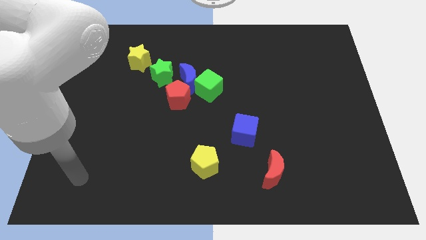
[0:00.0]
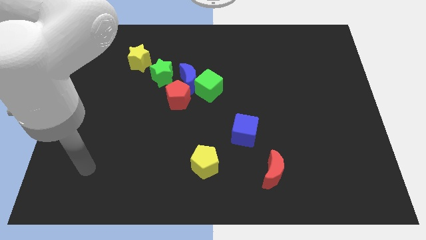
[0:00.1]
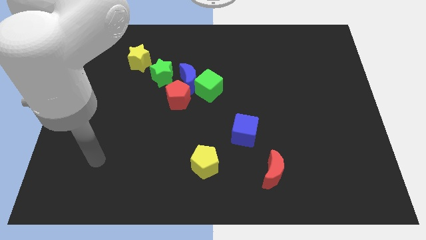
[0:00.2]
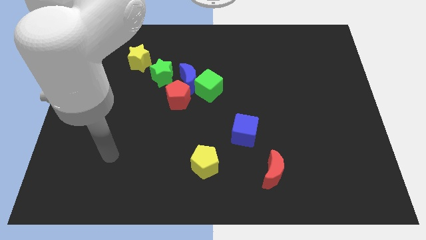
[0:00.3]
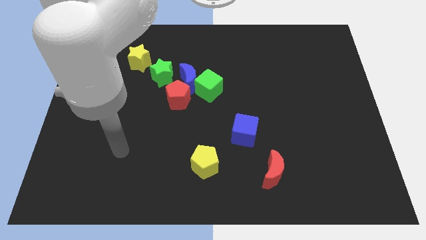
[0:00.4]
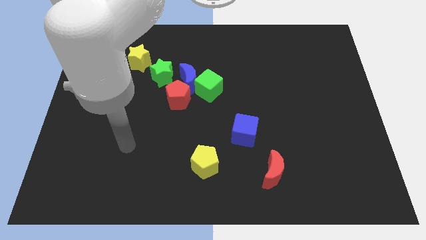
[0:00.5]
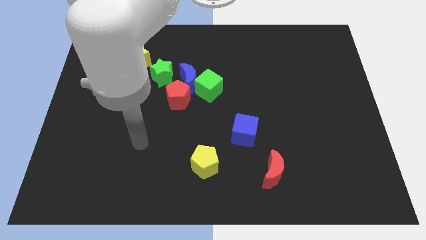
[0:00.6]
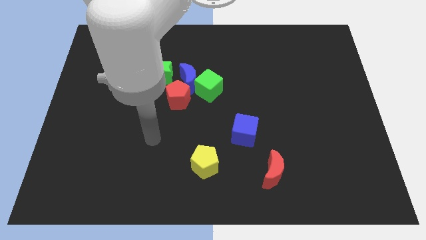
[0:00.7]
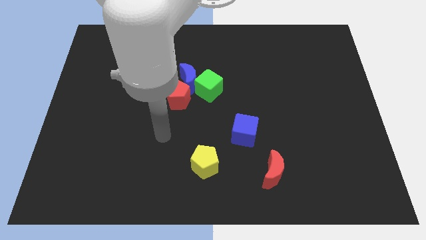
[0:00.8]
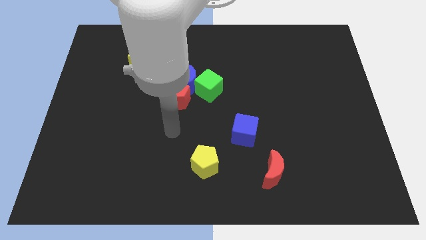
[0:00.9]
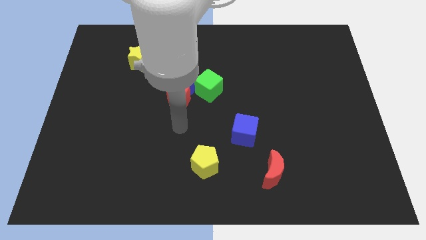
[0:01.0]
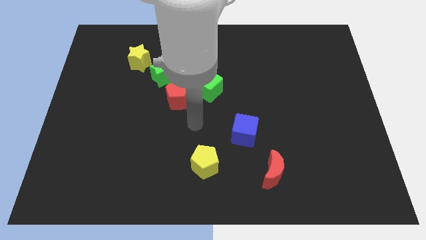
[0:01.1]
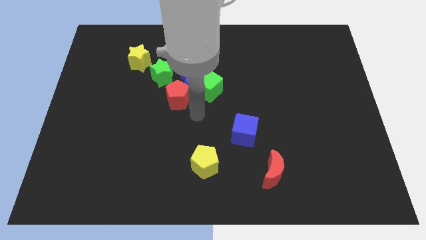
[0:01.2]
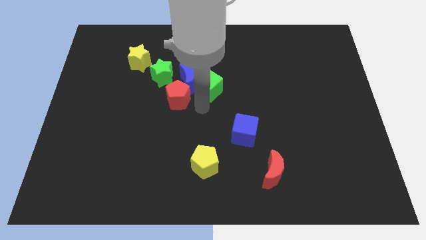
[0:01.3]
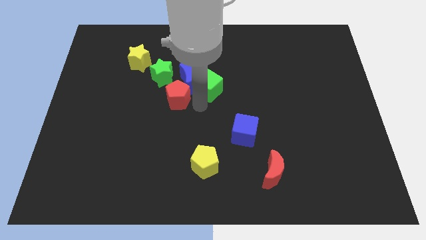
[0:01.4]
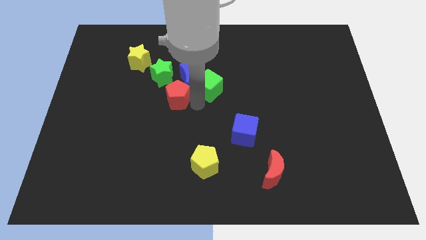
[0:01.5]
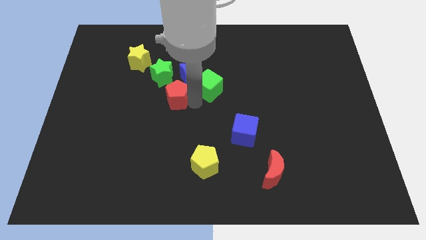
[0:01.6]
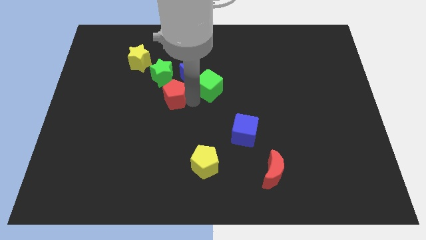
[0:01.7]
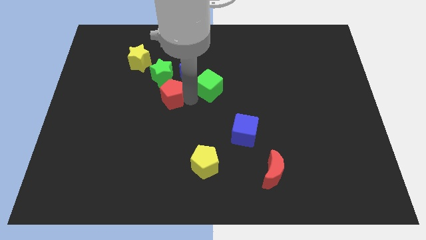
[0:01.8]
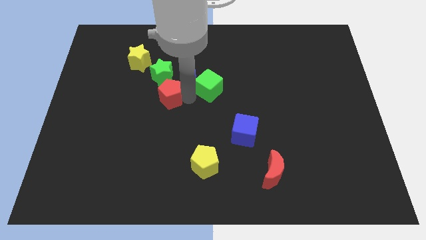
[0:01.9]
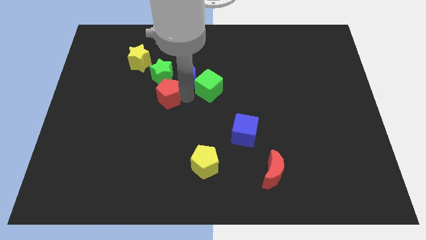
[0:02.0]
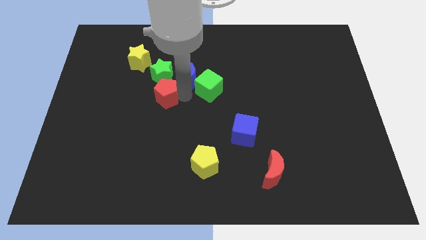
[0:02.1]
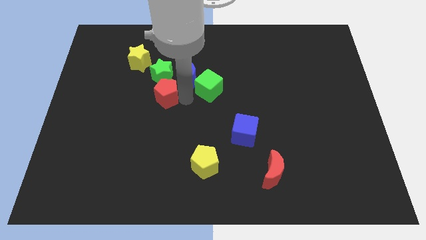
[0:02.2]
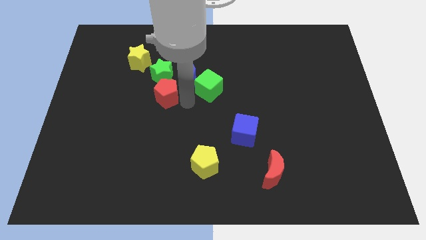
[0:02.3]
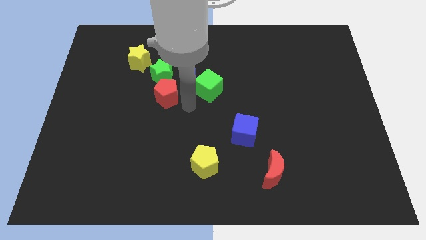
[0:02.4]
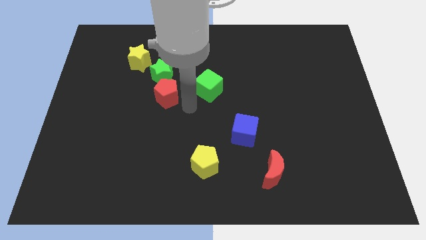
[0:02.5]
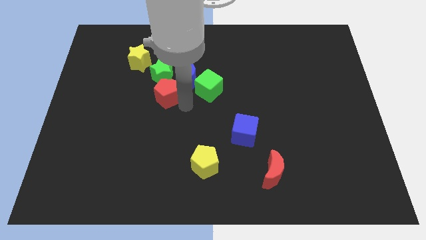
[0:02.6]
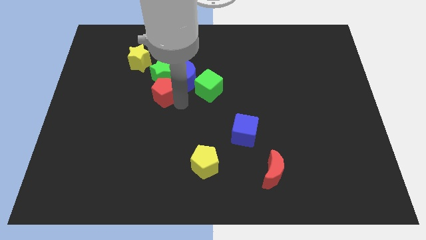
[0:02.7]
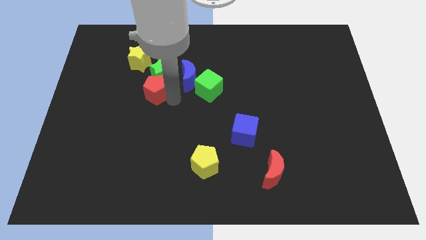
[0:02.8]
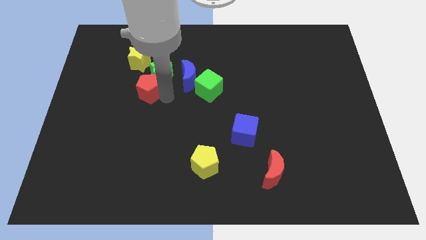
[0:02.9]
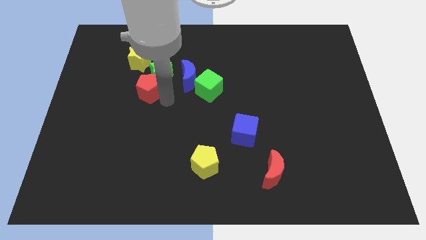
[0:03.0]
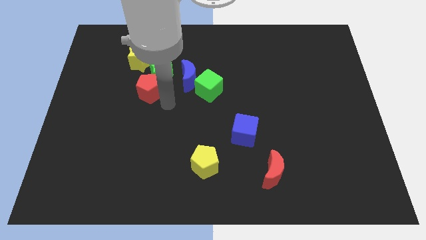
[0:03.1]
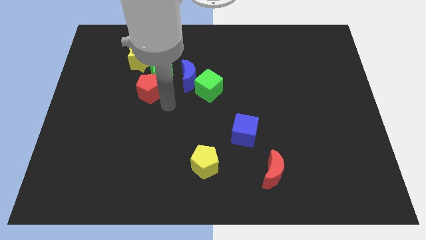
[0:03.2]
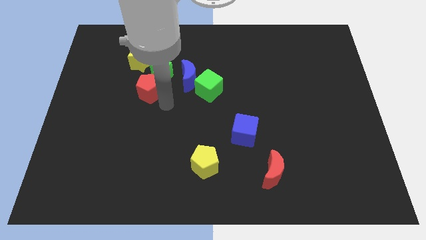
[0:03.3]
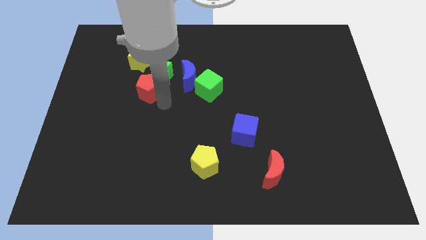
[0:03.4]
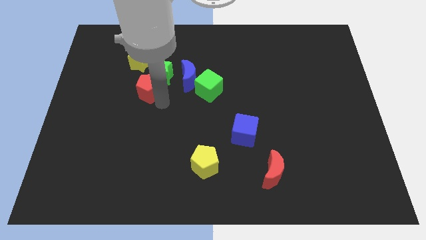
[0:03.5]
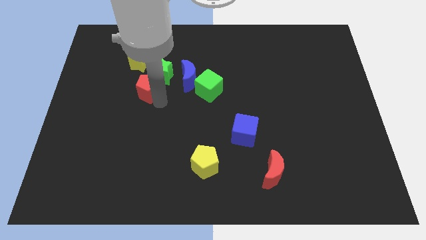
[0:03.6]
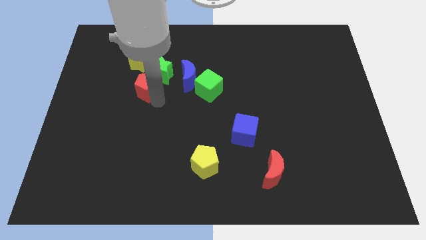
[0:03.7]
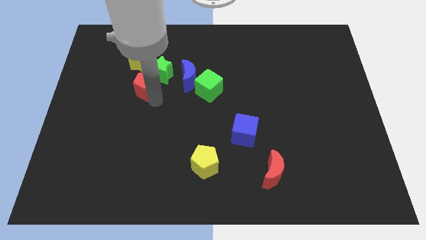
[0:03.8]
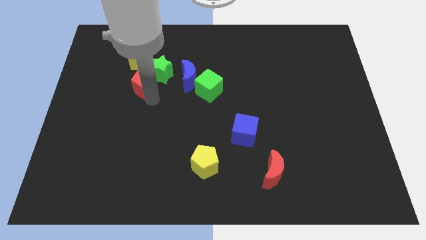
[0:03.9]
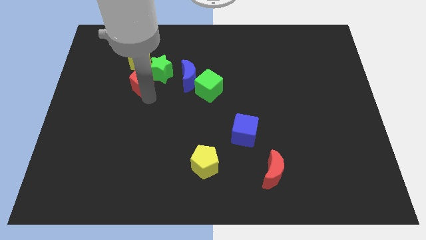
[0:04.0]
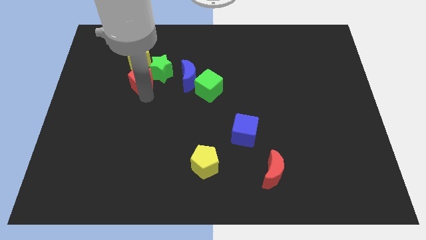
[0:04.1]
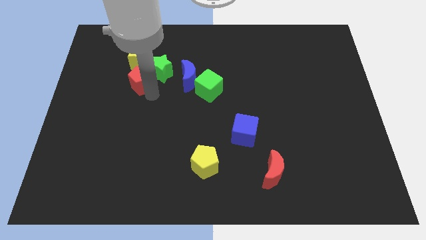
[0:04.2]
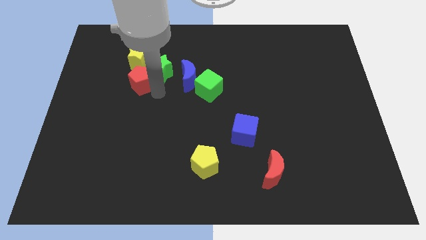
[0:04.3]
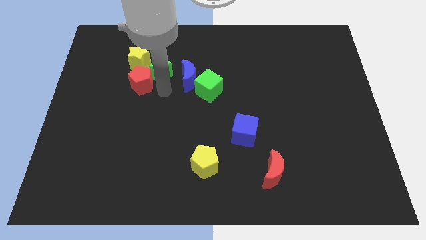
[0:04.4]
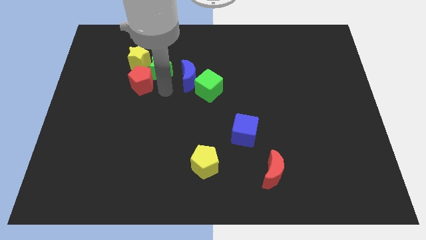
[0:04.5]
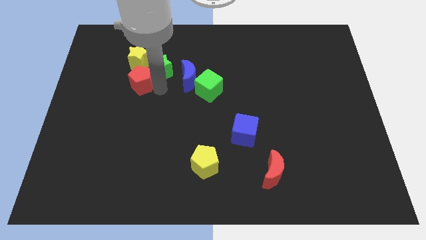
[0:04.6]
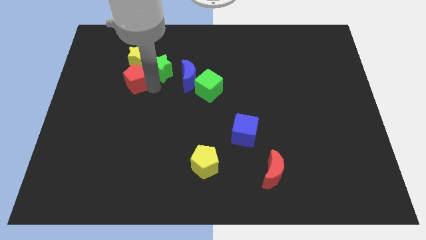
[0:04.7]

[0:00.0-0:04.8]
push the red pentagon to the bottom left of the yellow star

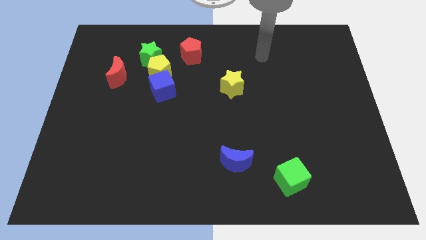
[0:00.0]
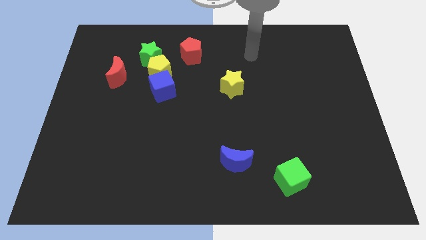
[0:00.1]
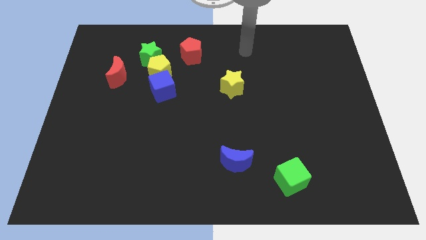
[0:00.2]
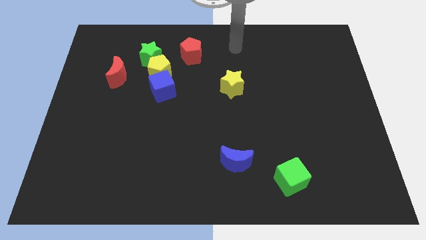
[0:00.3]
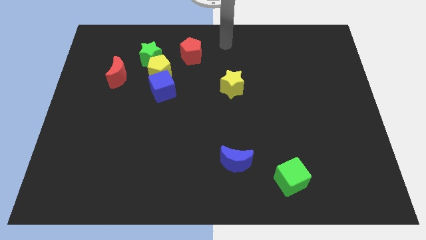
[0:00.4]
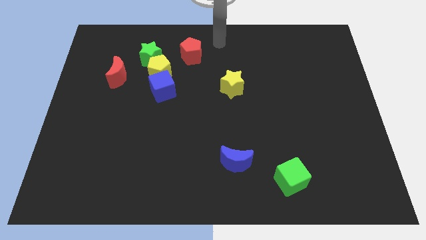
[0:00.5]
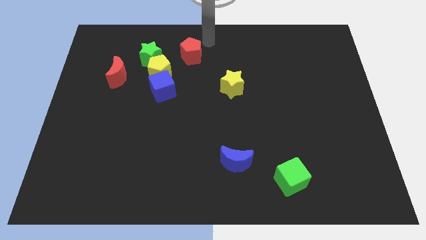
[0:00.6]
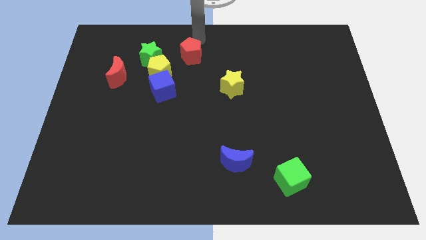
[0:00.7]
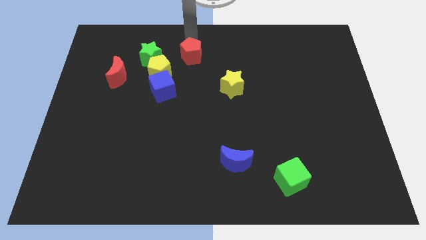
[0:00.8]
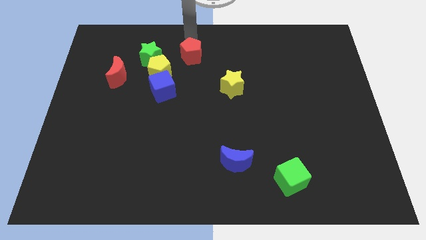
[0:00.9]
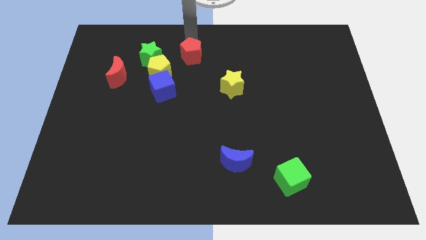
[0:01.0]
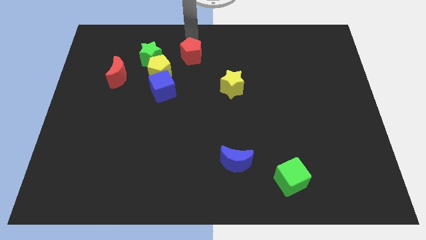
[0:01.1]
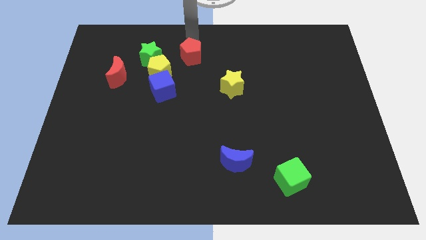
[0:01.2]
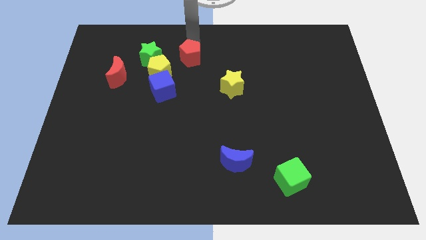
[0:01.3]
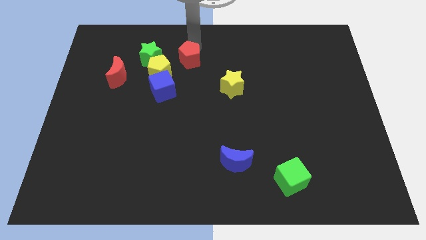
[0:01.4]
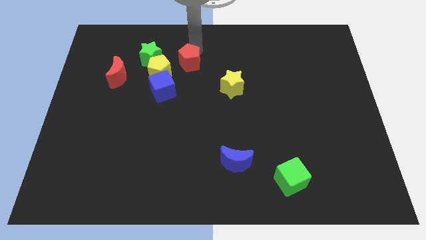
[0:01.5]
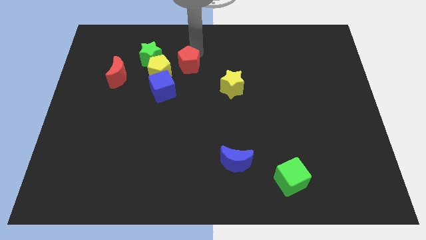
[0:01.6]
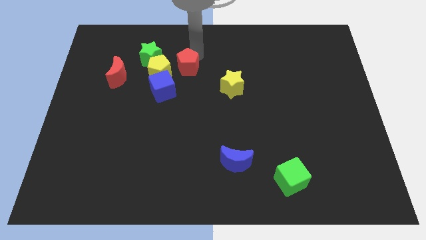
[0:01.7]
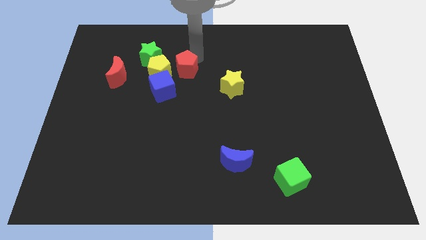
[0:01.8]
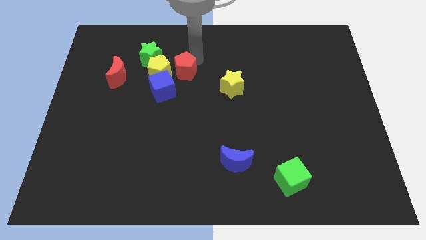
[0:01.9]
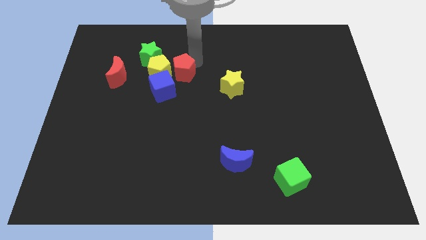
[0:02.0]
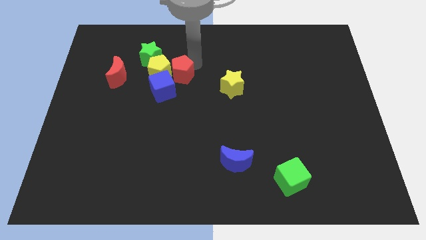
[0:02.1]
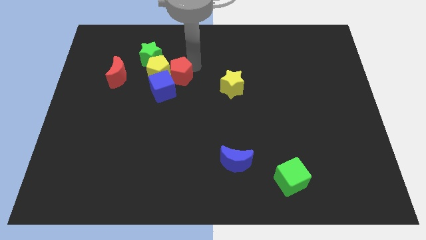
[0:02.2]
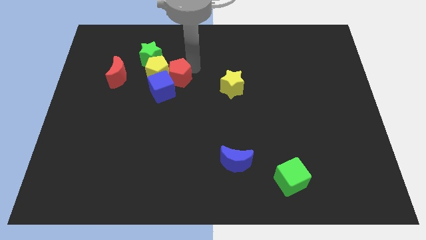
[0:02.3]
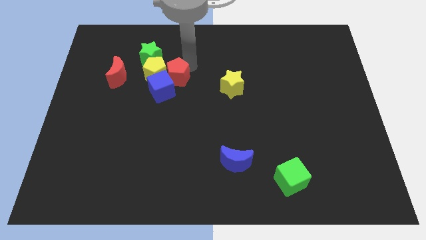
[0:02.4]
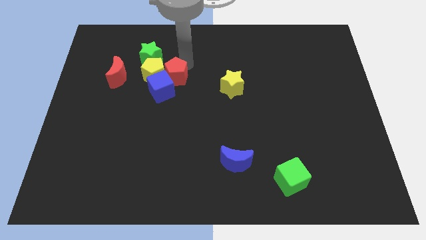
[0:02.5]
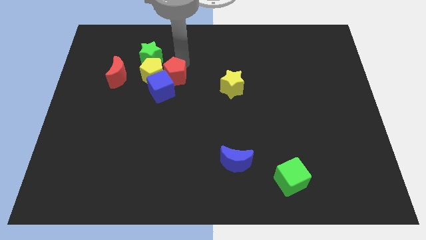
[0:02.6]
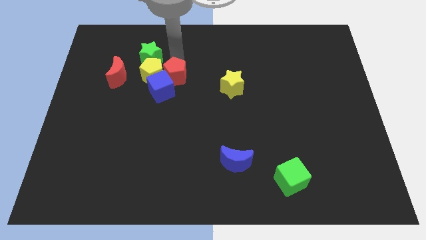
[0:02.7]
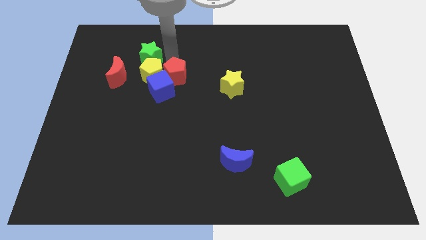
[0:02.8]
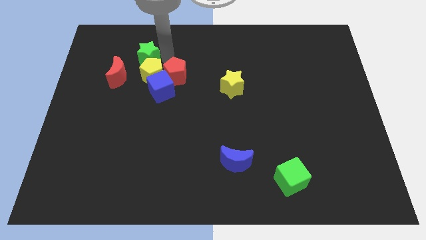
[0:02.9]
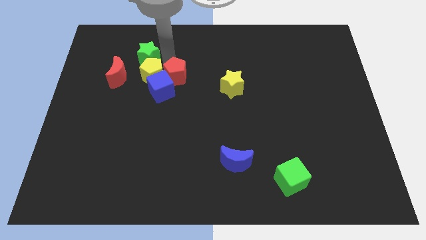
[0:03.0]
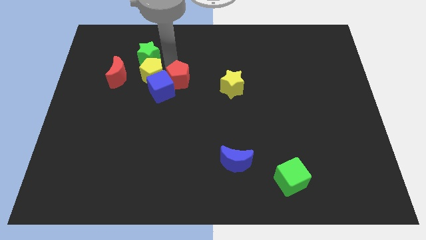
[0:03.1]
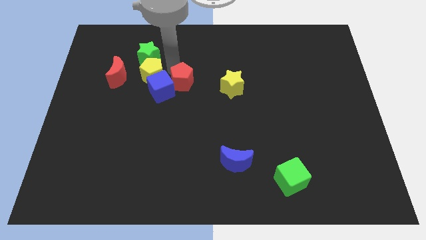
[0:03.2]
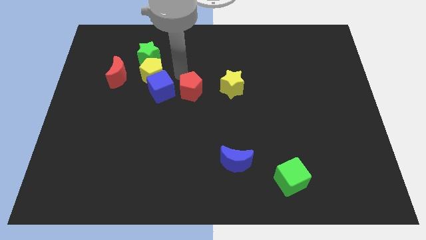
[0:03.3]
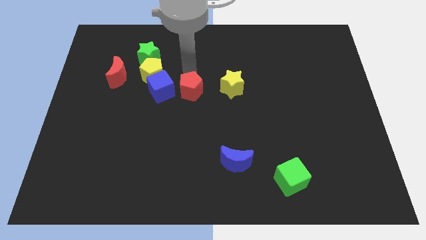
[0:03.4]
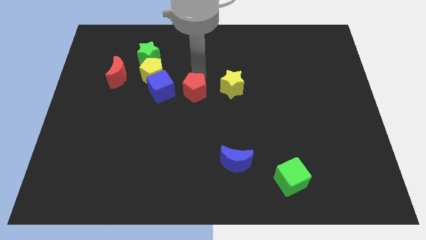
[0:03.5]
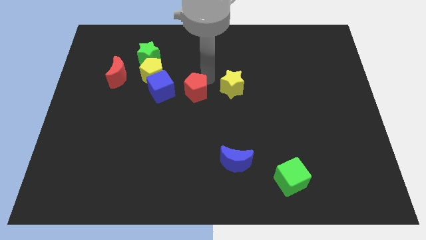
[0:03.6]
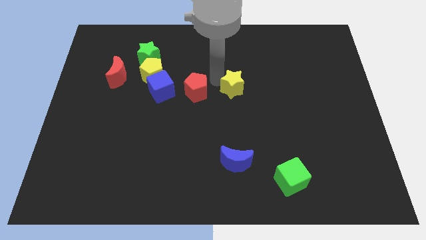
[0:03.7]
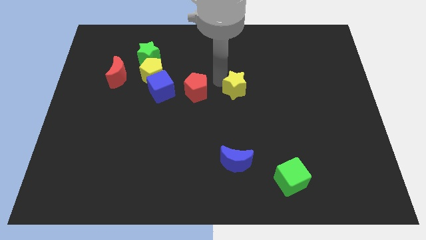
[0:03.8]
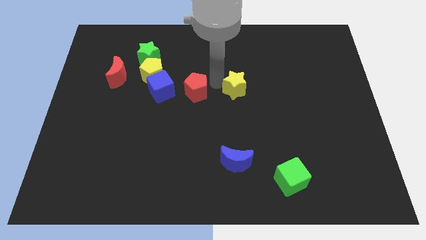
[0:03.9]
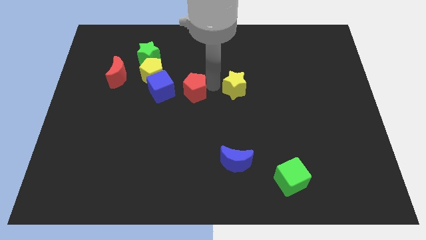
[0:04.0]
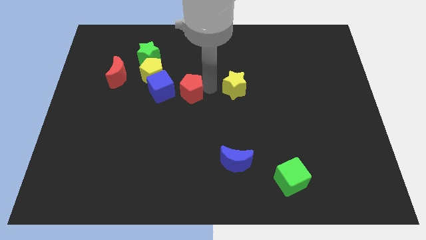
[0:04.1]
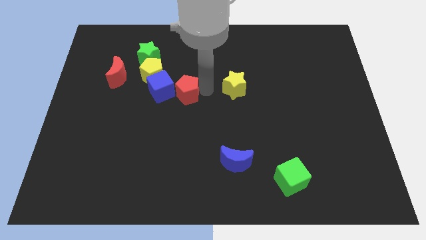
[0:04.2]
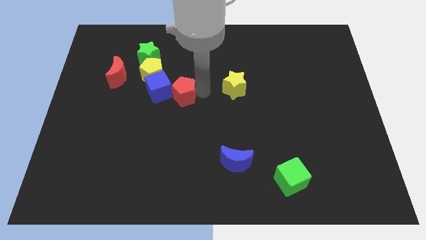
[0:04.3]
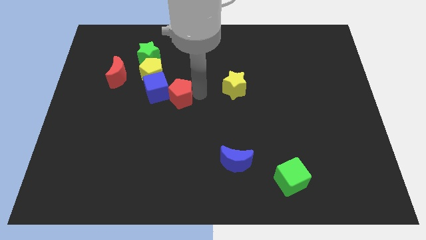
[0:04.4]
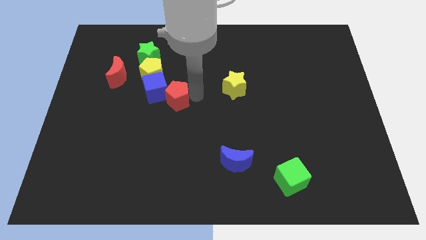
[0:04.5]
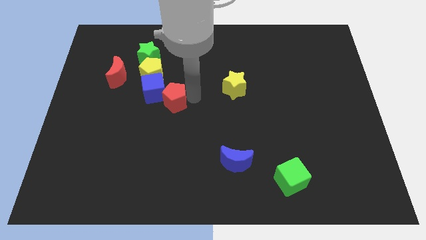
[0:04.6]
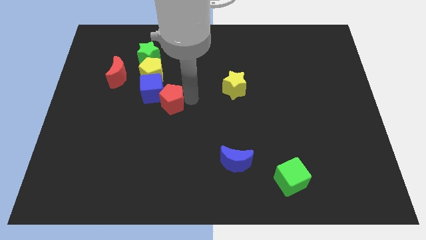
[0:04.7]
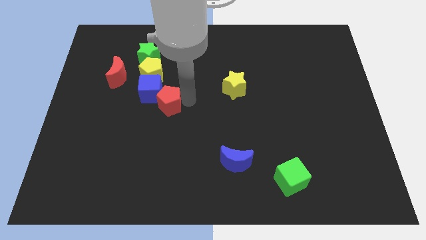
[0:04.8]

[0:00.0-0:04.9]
slide the red pentagon below the yellow pentagon
